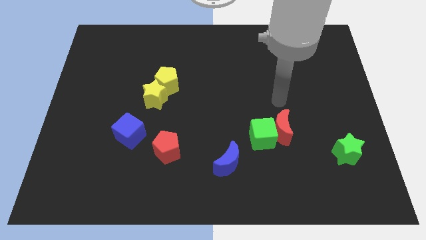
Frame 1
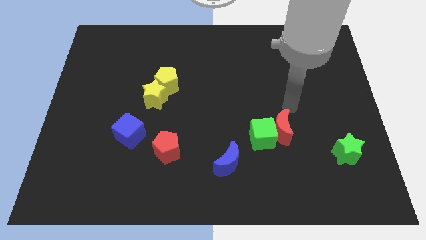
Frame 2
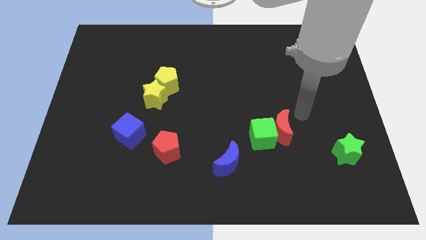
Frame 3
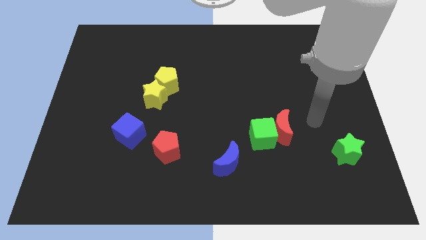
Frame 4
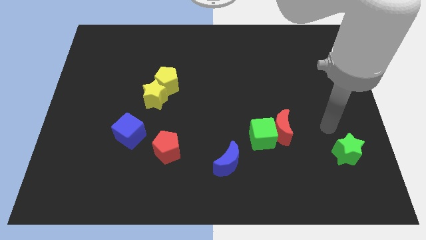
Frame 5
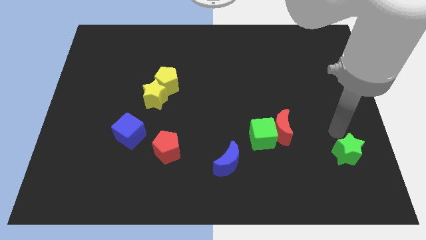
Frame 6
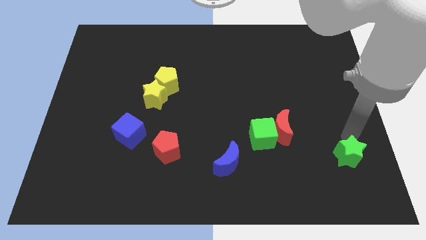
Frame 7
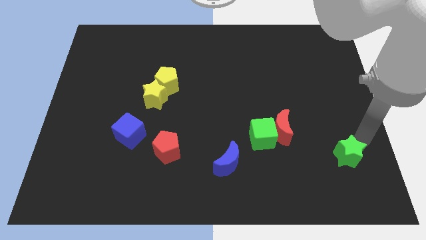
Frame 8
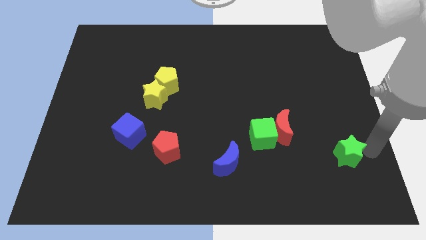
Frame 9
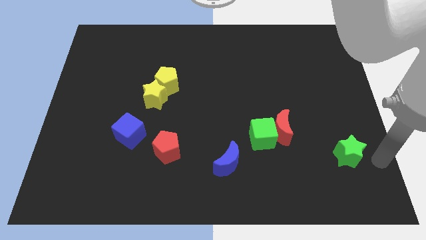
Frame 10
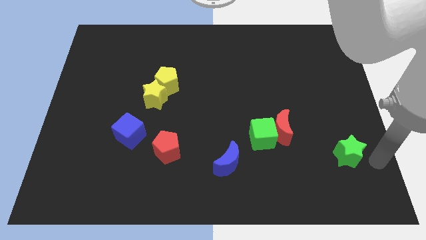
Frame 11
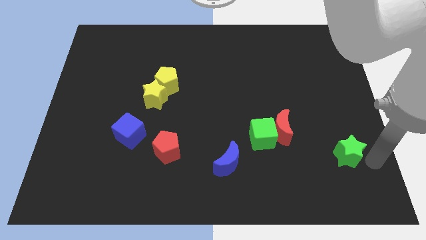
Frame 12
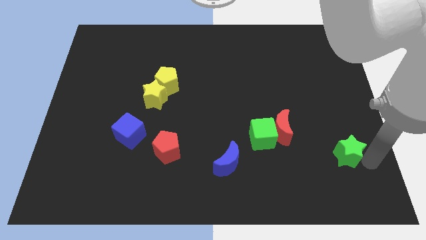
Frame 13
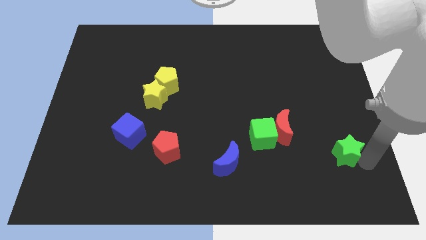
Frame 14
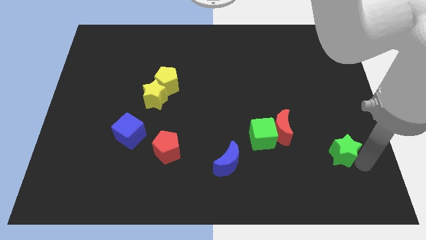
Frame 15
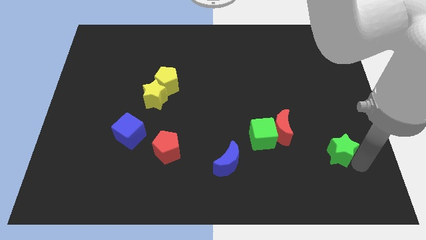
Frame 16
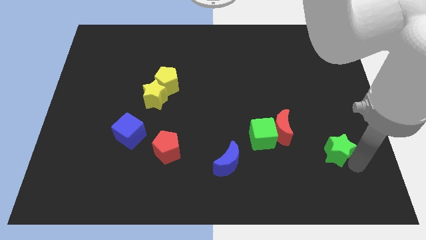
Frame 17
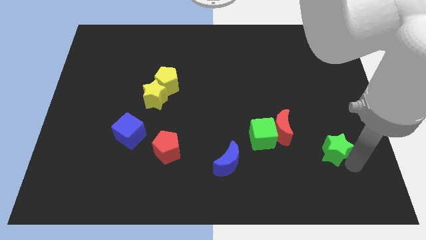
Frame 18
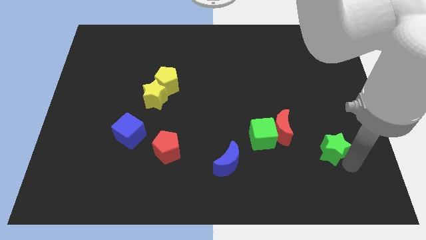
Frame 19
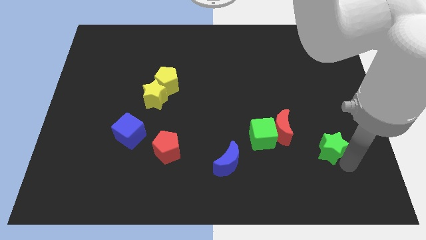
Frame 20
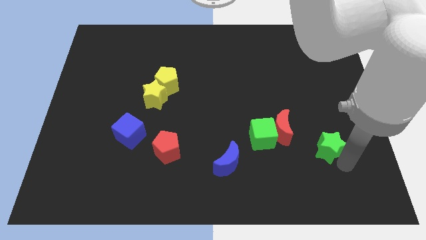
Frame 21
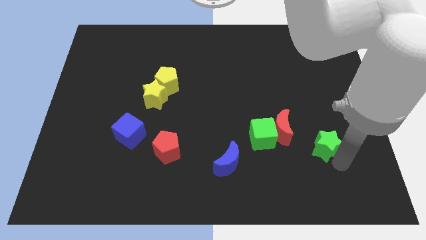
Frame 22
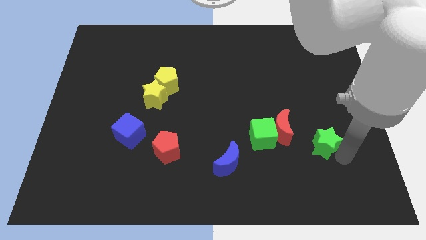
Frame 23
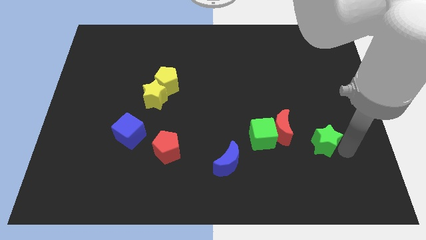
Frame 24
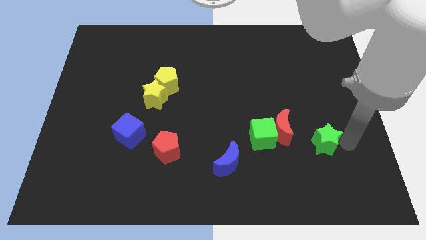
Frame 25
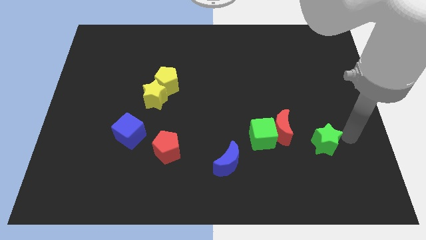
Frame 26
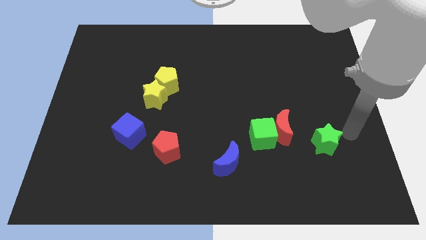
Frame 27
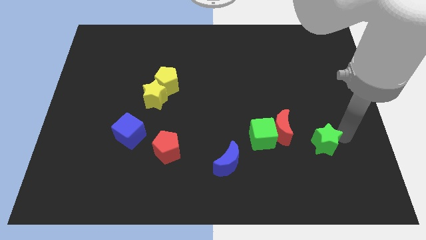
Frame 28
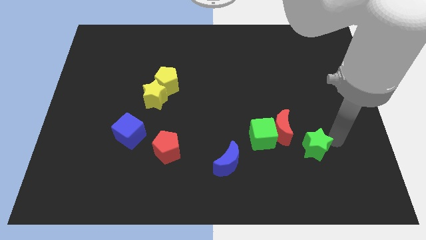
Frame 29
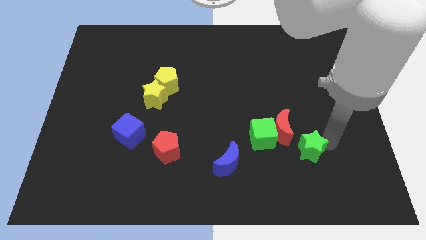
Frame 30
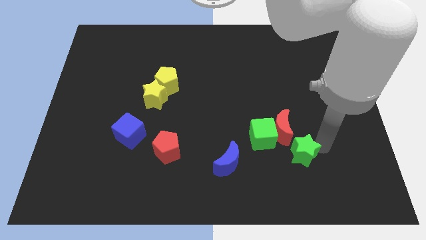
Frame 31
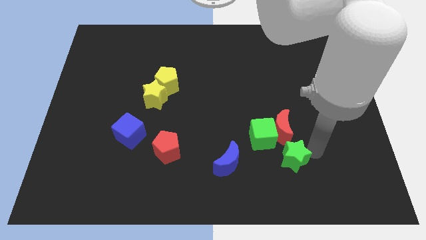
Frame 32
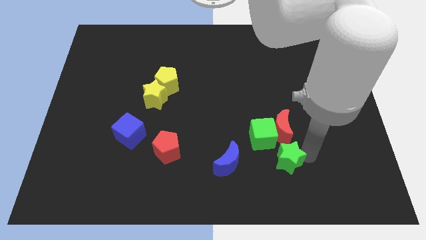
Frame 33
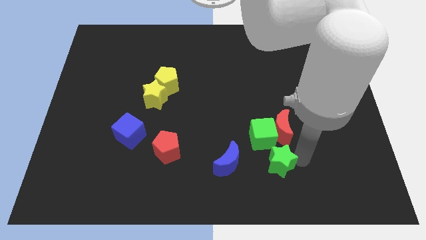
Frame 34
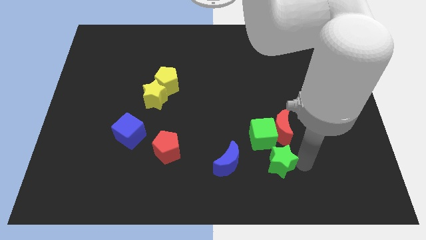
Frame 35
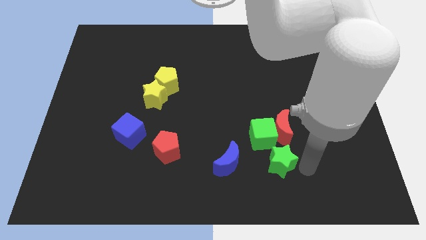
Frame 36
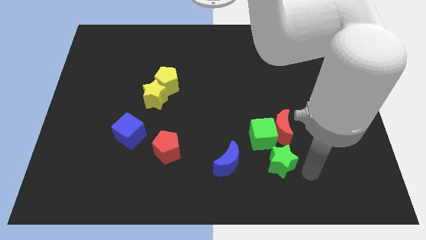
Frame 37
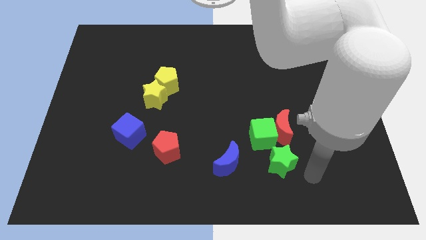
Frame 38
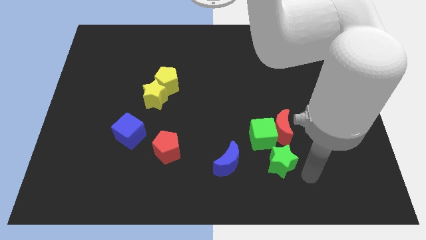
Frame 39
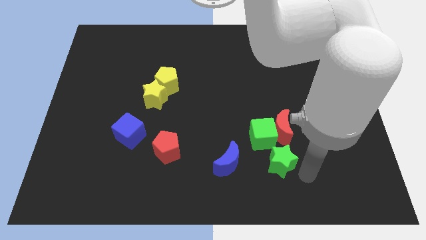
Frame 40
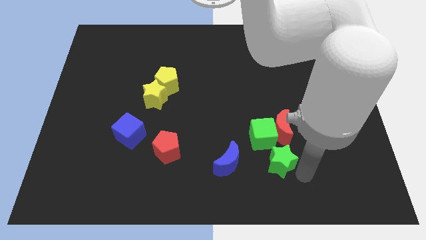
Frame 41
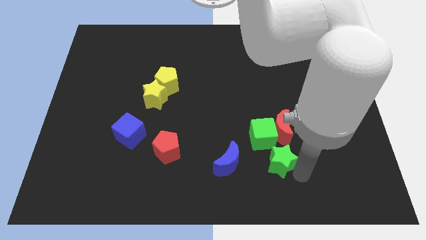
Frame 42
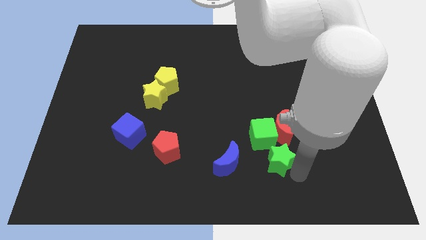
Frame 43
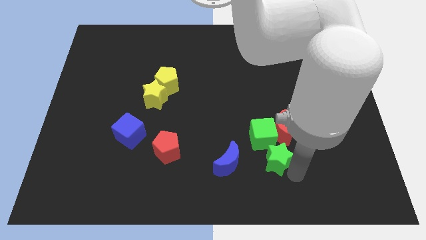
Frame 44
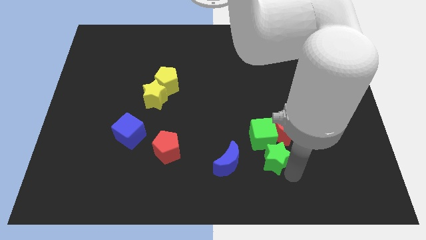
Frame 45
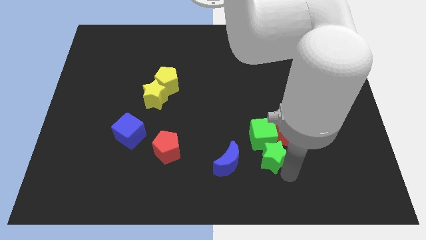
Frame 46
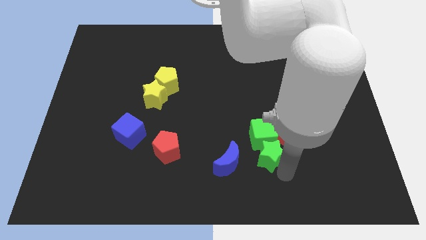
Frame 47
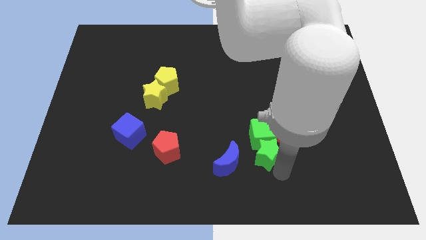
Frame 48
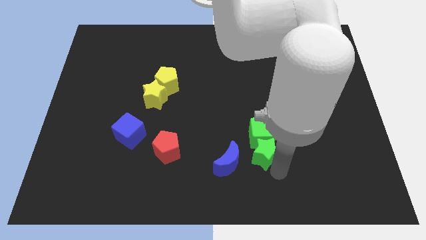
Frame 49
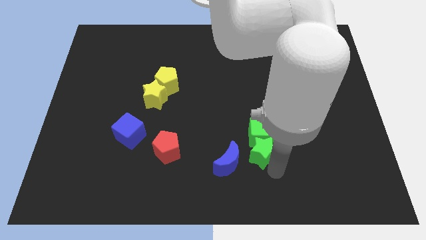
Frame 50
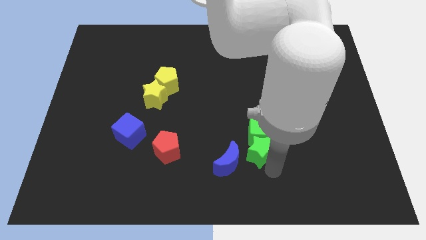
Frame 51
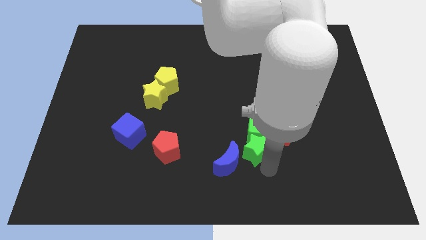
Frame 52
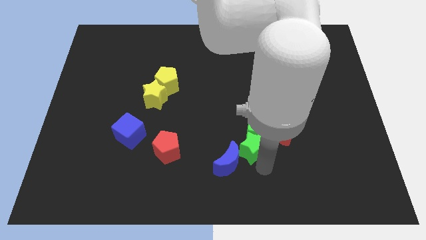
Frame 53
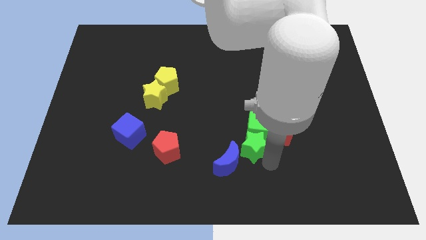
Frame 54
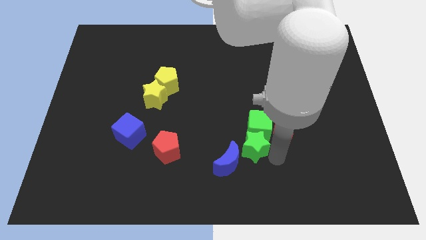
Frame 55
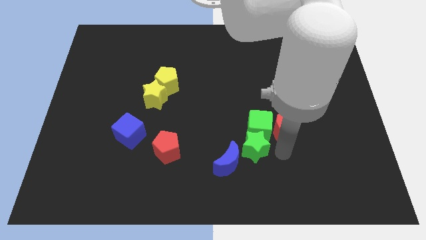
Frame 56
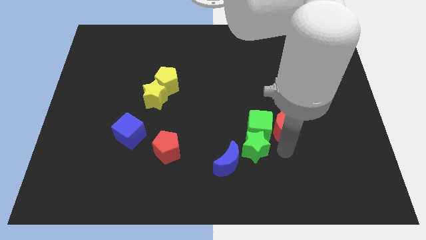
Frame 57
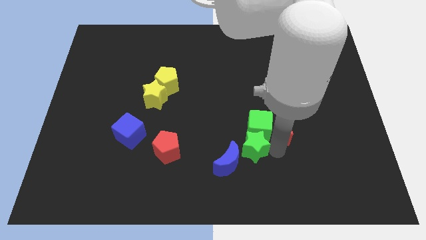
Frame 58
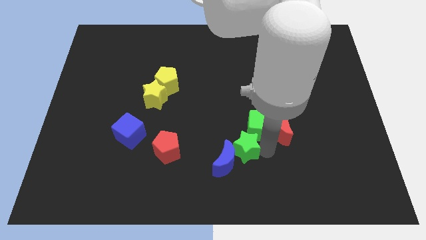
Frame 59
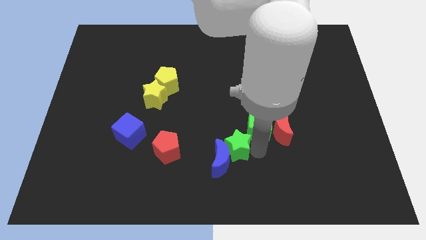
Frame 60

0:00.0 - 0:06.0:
move the green star right of the red pentagon

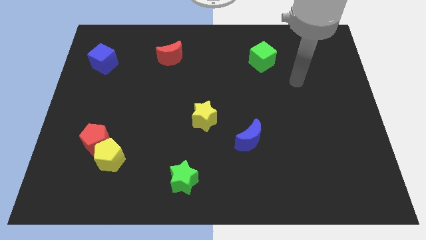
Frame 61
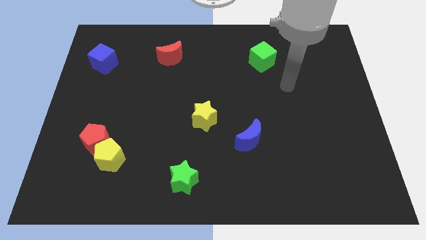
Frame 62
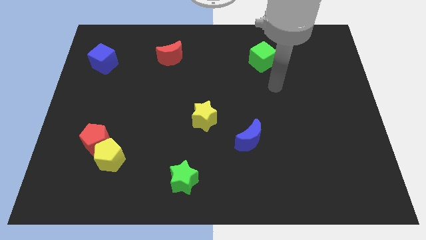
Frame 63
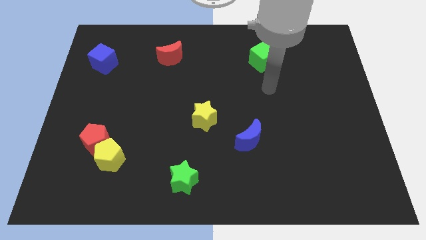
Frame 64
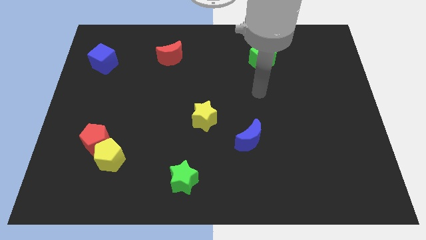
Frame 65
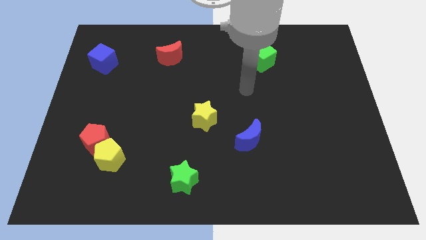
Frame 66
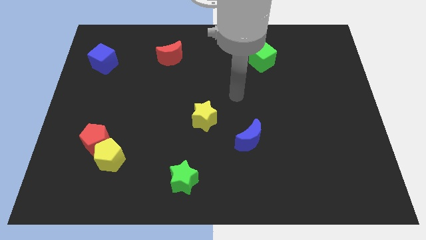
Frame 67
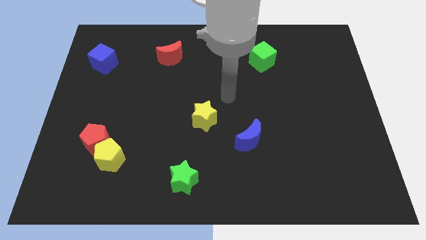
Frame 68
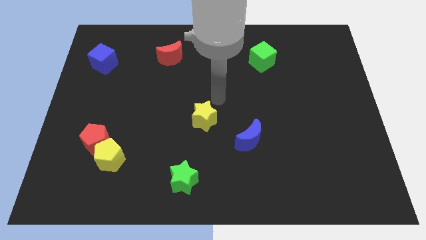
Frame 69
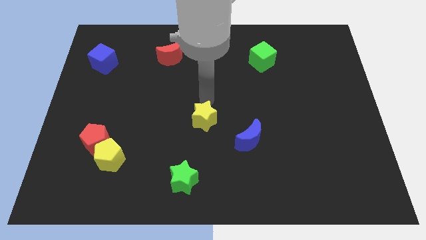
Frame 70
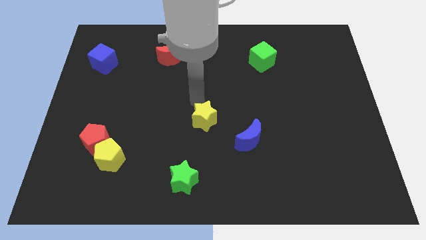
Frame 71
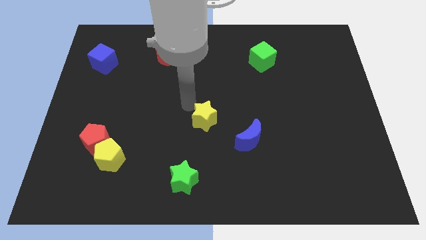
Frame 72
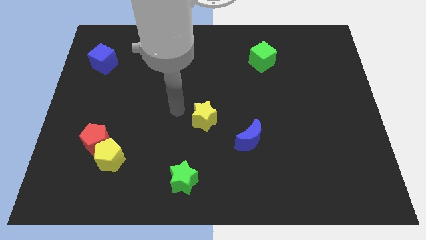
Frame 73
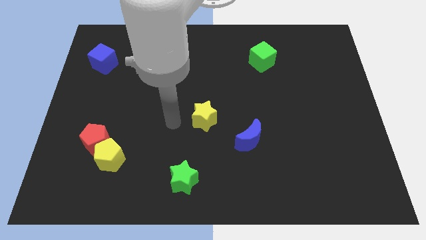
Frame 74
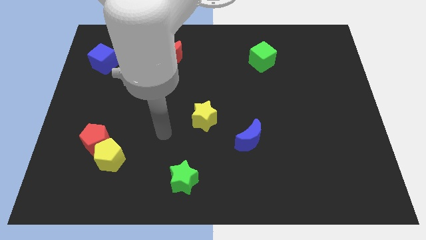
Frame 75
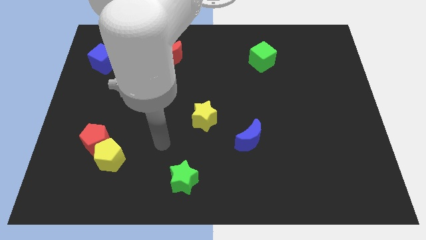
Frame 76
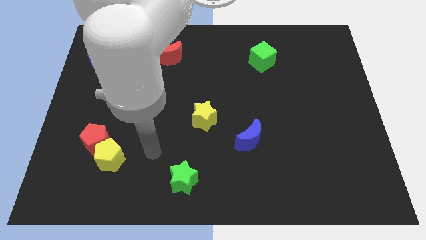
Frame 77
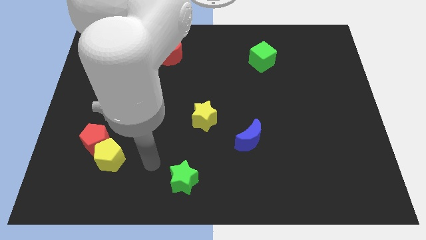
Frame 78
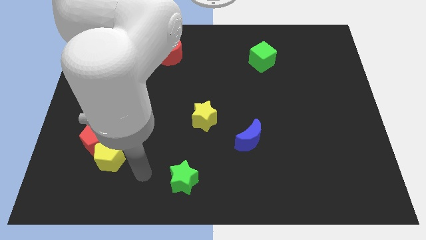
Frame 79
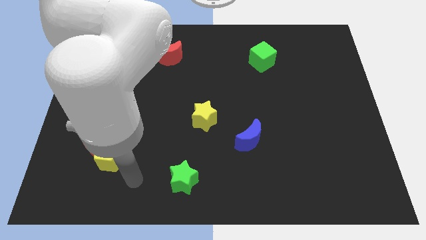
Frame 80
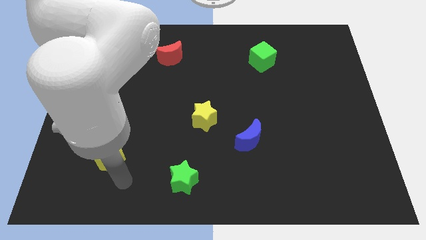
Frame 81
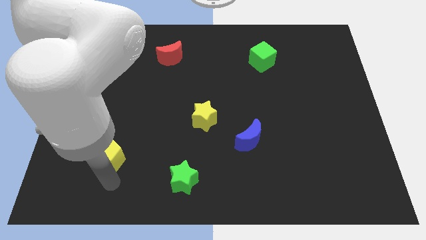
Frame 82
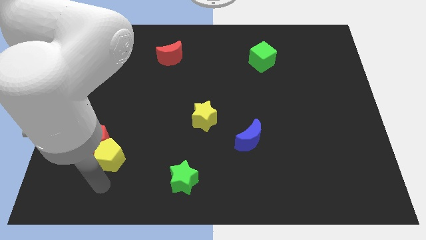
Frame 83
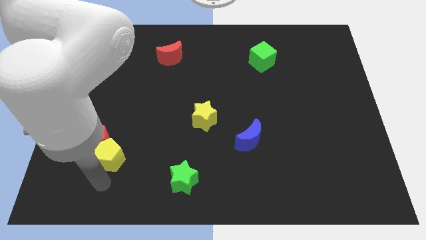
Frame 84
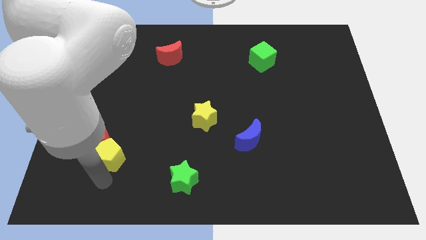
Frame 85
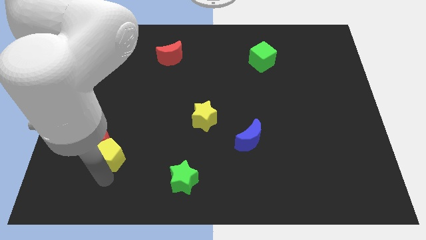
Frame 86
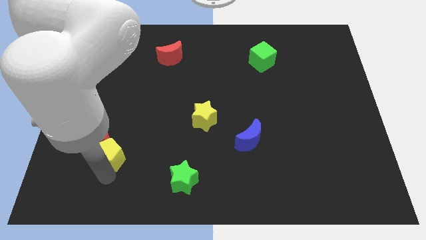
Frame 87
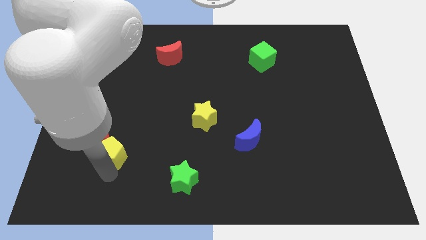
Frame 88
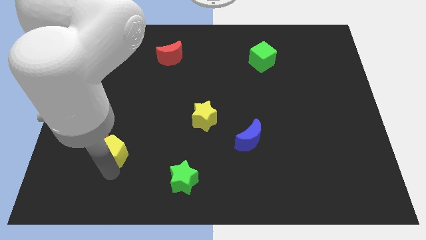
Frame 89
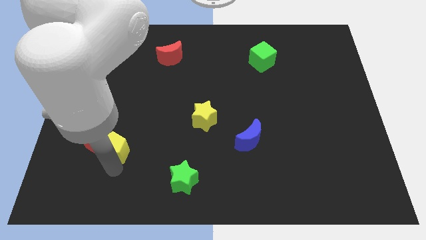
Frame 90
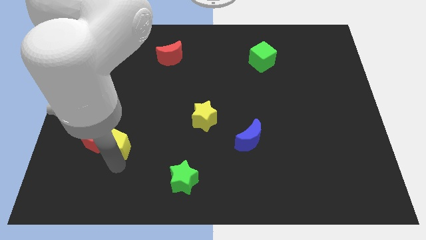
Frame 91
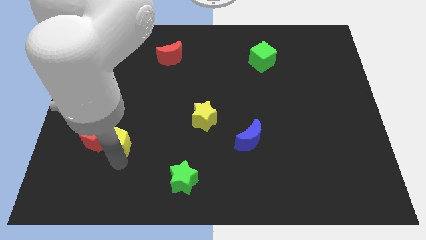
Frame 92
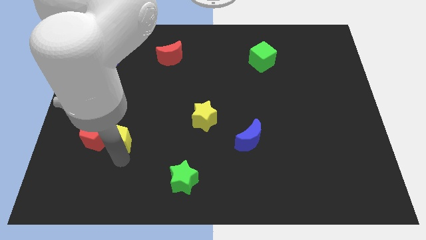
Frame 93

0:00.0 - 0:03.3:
push the yellow pentagon to the top right side of the red pentagon
